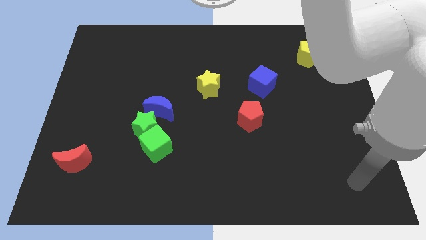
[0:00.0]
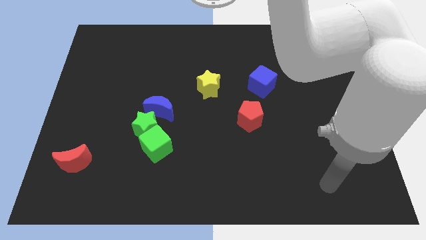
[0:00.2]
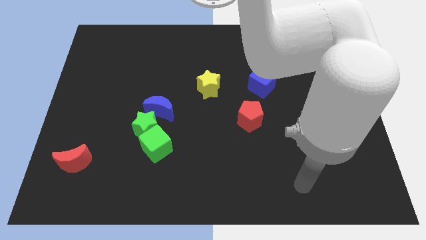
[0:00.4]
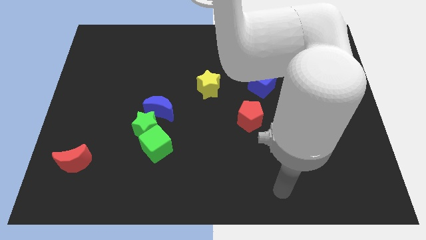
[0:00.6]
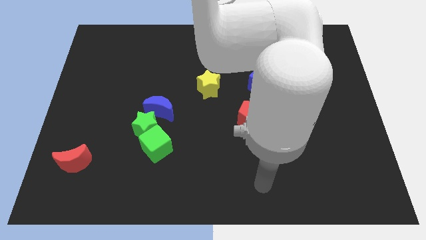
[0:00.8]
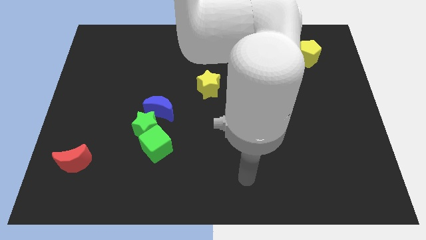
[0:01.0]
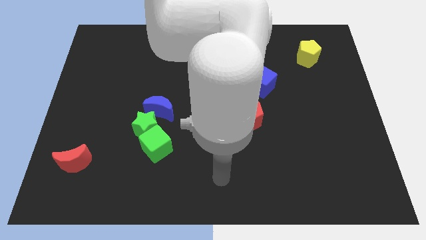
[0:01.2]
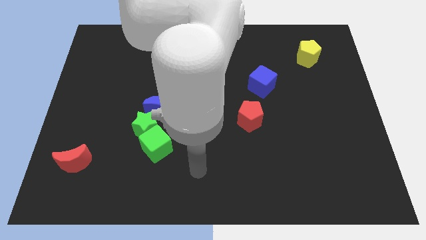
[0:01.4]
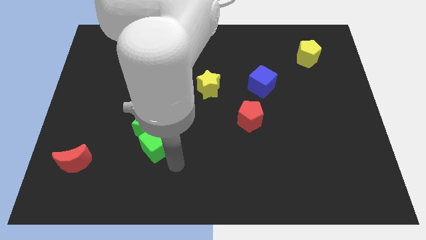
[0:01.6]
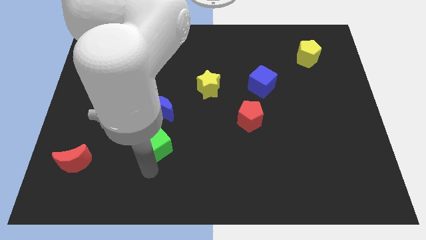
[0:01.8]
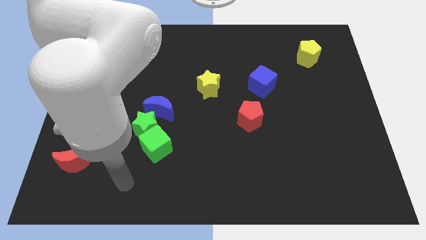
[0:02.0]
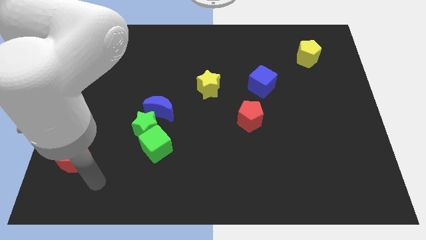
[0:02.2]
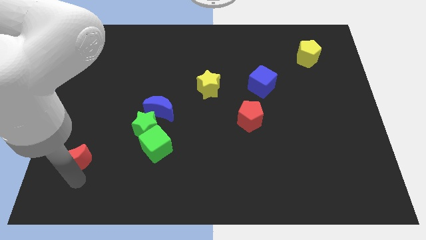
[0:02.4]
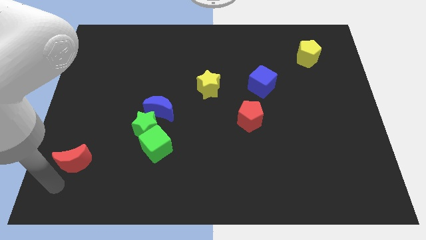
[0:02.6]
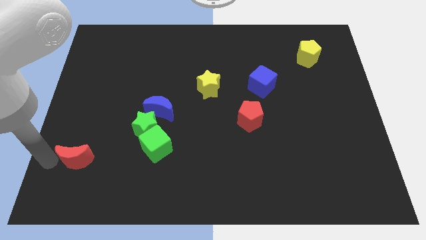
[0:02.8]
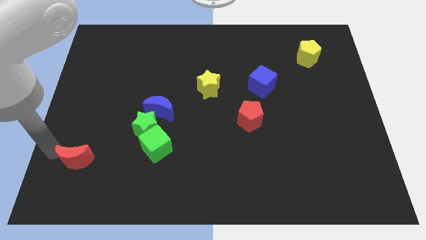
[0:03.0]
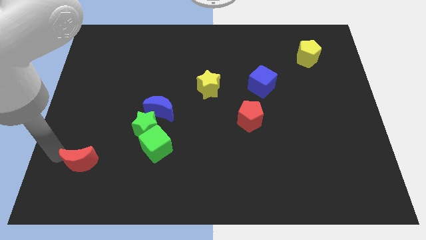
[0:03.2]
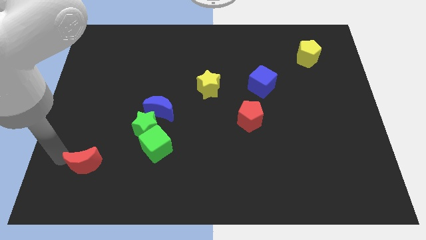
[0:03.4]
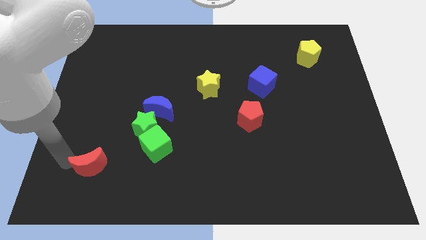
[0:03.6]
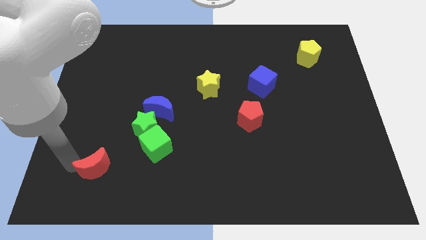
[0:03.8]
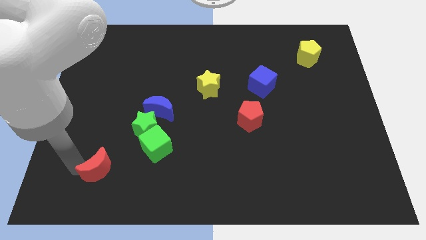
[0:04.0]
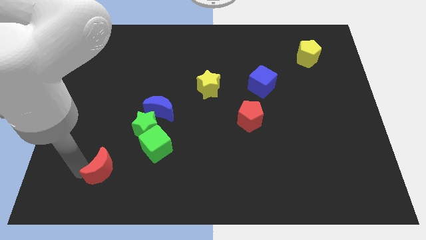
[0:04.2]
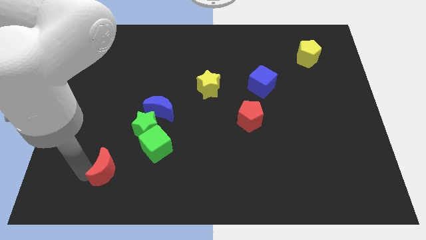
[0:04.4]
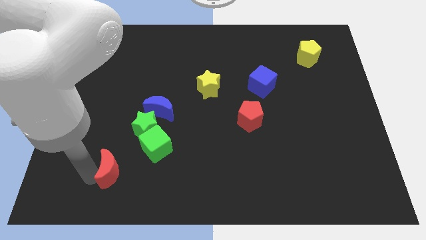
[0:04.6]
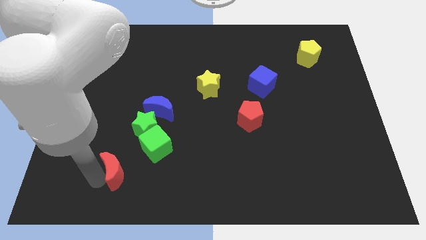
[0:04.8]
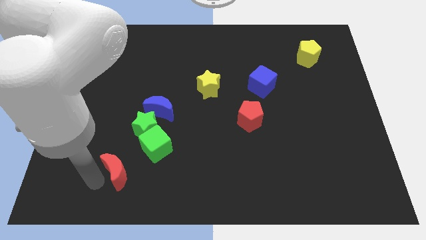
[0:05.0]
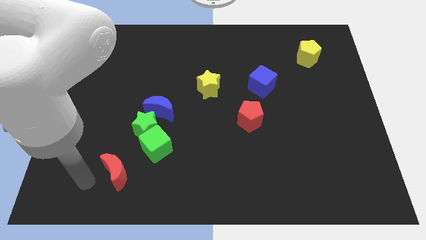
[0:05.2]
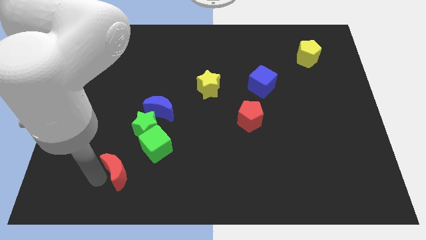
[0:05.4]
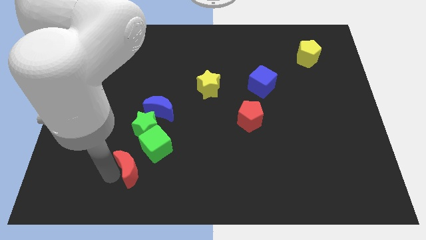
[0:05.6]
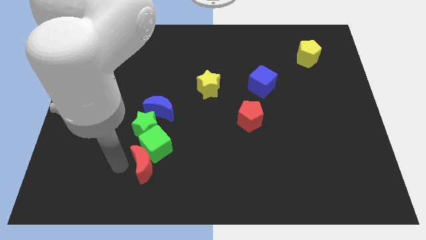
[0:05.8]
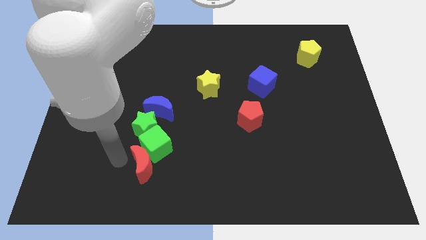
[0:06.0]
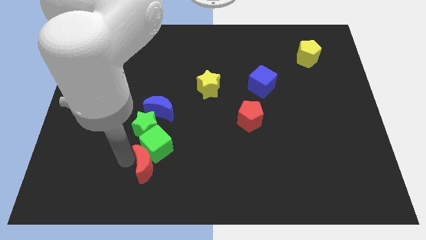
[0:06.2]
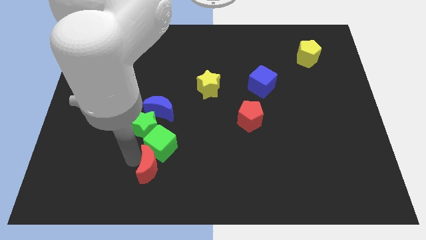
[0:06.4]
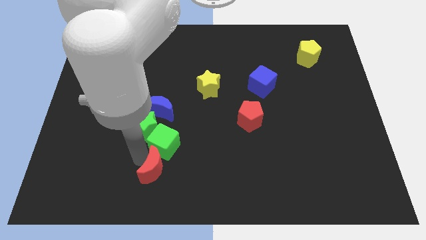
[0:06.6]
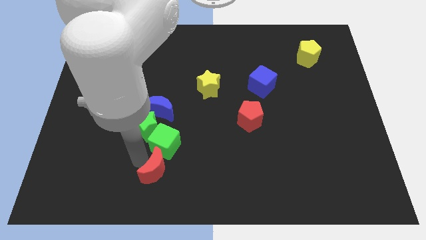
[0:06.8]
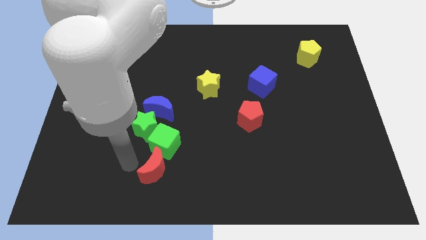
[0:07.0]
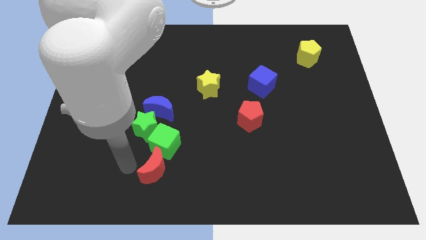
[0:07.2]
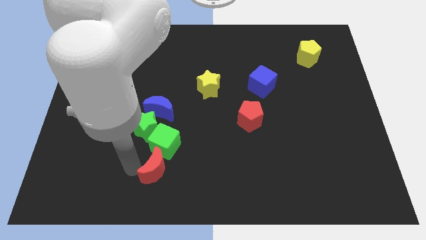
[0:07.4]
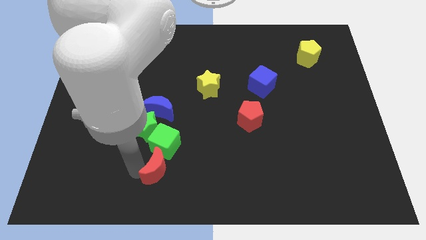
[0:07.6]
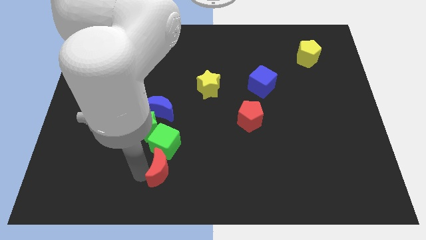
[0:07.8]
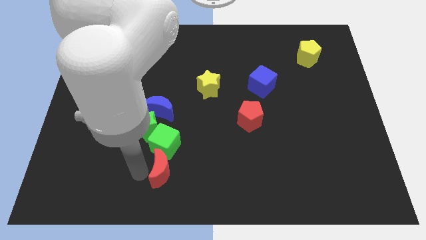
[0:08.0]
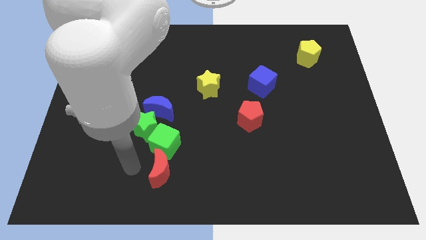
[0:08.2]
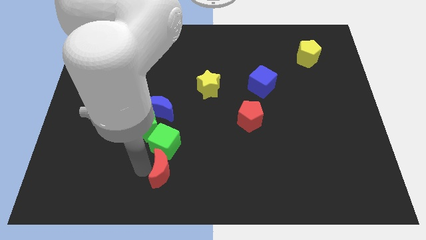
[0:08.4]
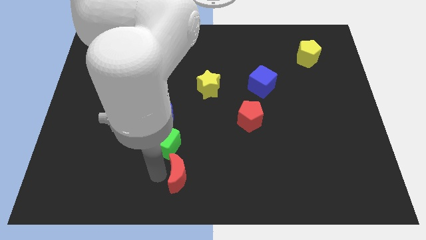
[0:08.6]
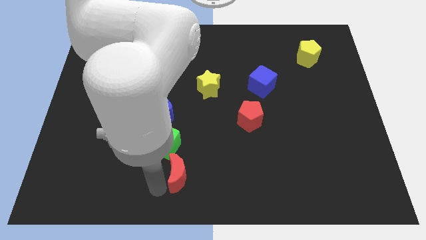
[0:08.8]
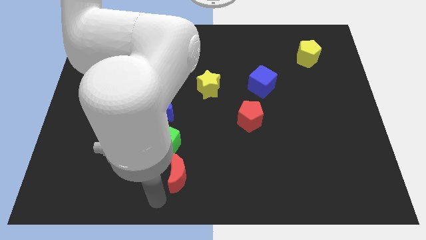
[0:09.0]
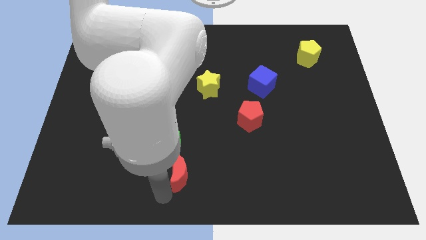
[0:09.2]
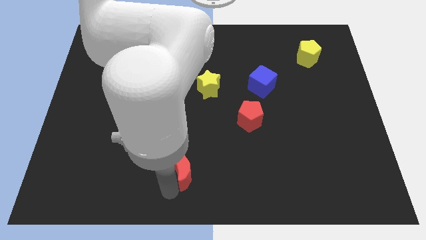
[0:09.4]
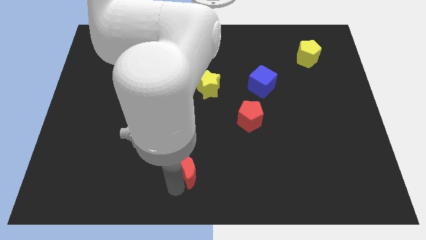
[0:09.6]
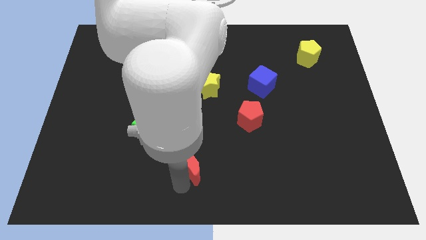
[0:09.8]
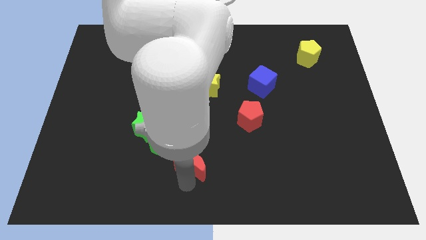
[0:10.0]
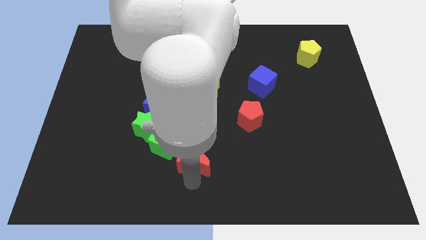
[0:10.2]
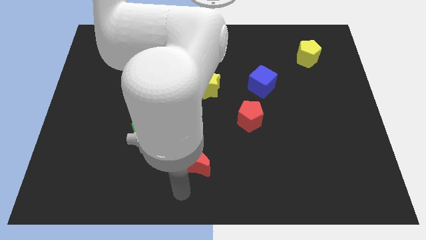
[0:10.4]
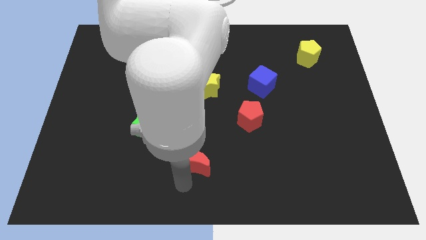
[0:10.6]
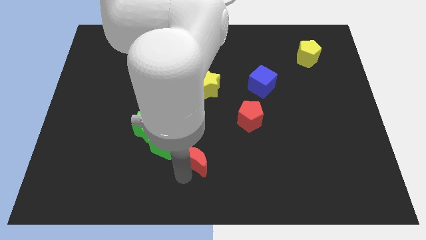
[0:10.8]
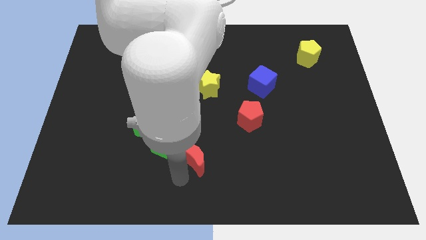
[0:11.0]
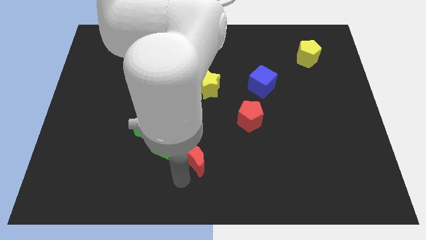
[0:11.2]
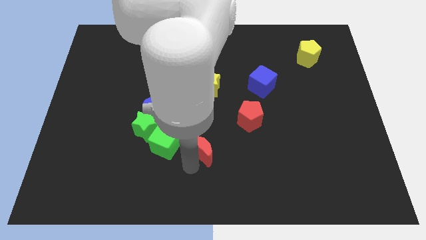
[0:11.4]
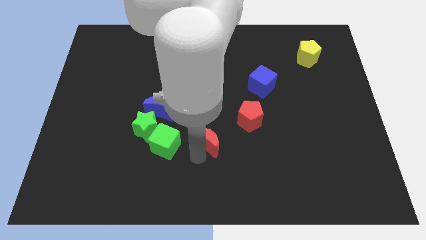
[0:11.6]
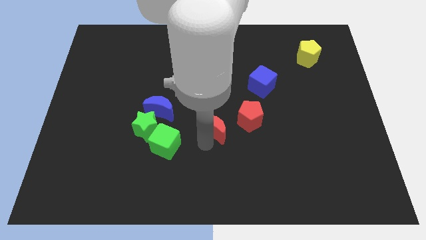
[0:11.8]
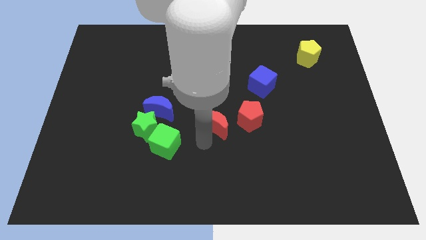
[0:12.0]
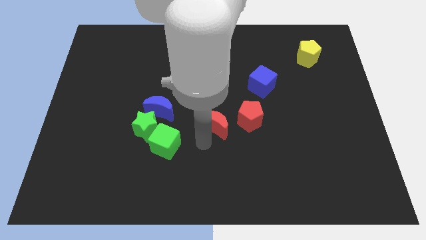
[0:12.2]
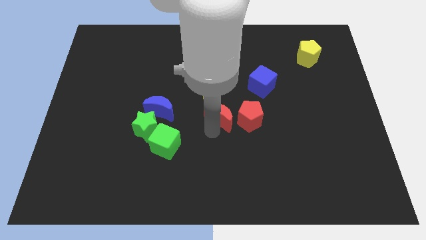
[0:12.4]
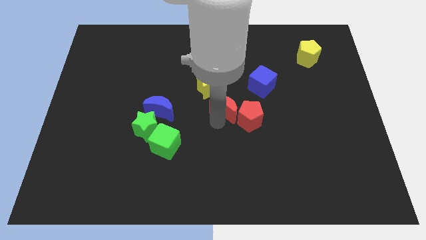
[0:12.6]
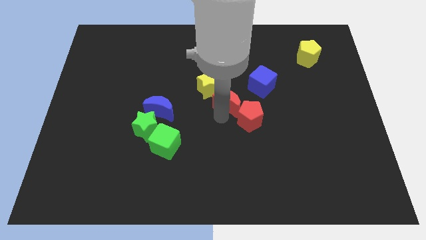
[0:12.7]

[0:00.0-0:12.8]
push the red moon to the top side of the red pentagon

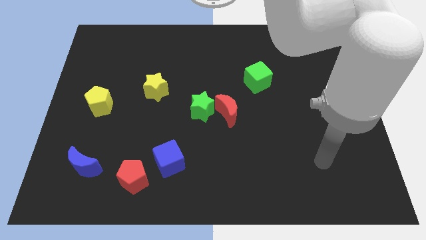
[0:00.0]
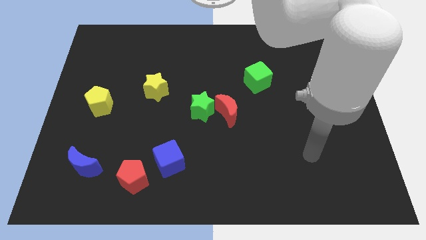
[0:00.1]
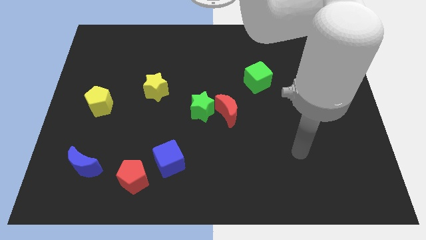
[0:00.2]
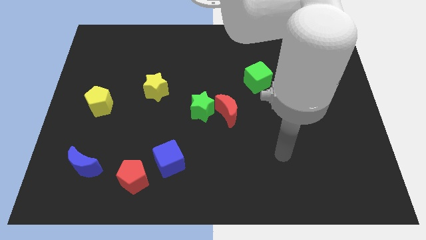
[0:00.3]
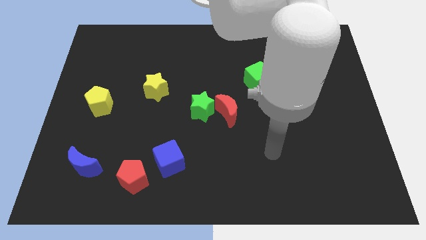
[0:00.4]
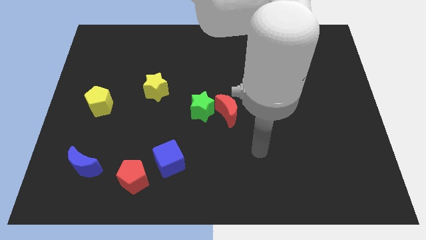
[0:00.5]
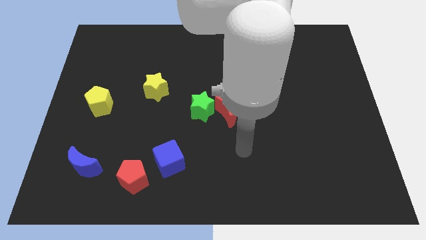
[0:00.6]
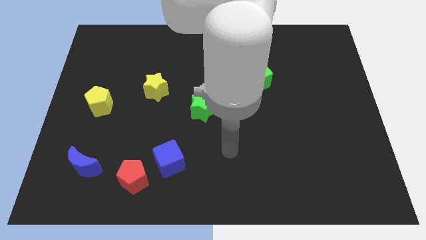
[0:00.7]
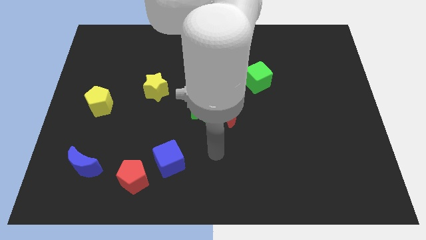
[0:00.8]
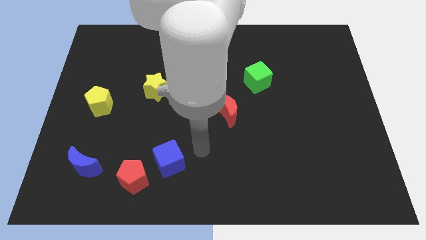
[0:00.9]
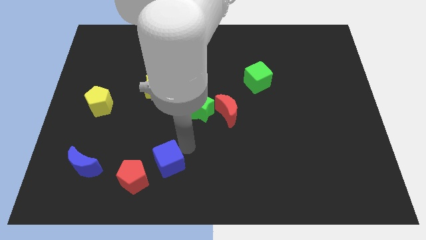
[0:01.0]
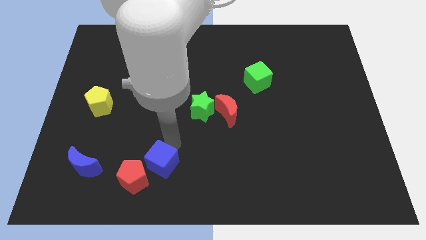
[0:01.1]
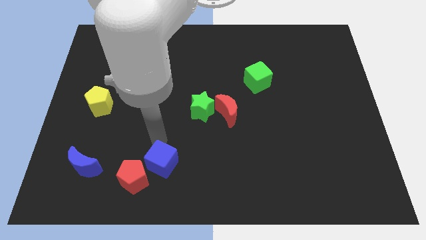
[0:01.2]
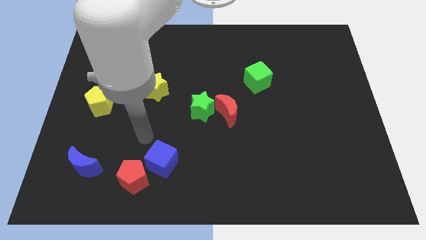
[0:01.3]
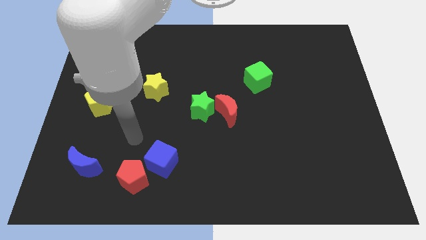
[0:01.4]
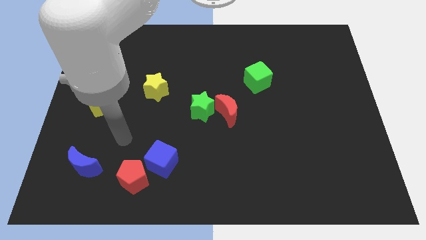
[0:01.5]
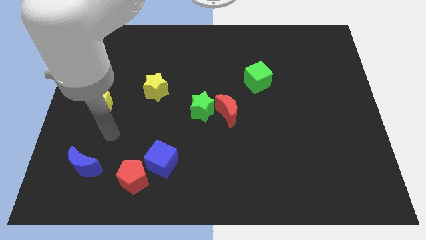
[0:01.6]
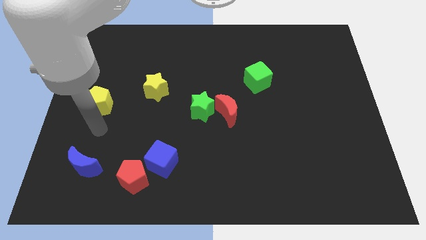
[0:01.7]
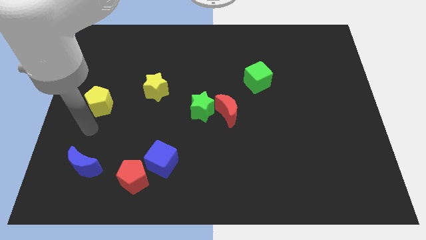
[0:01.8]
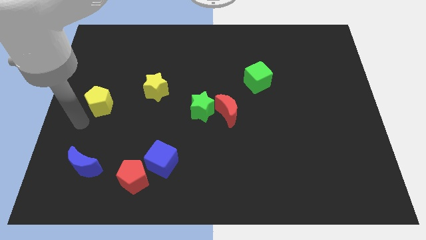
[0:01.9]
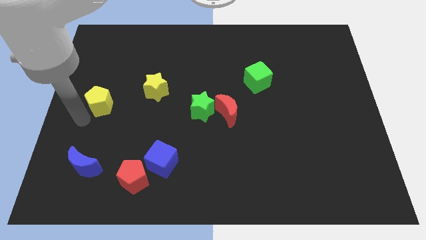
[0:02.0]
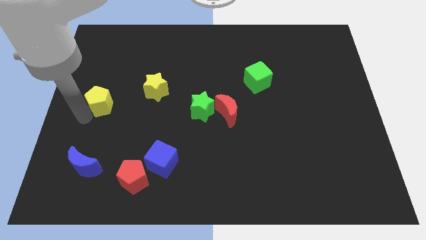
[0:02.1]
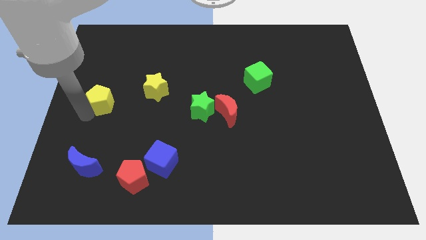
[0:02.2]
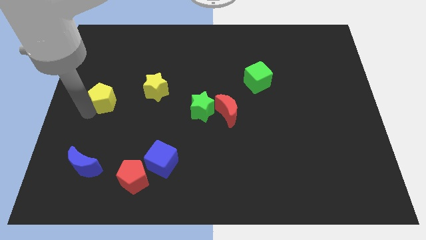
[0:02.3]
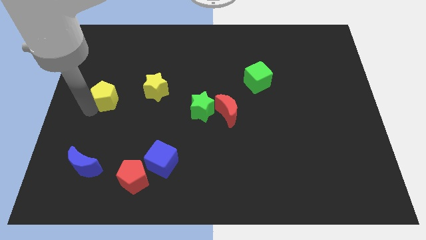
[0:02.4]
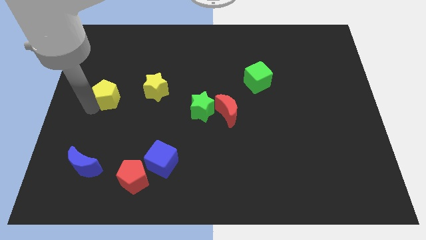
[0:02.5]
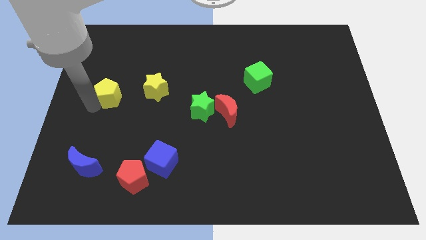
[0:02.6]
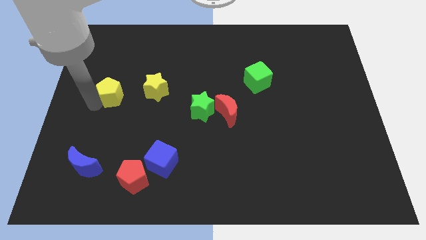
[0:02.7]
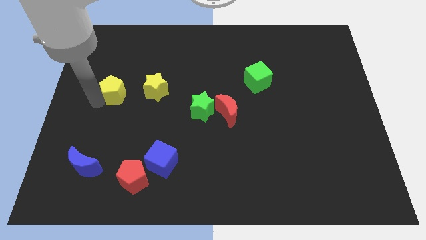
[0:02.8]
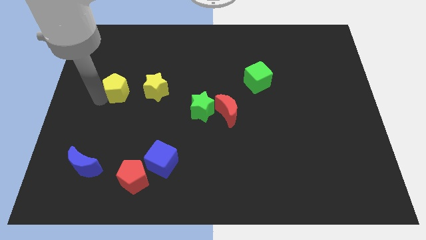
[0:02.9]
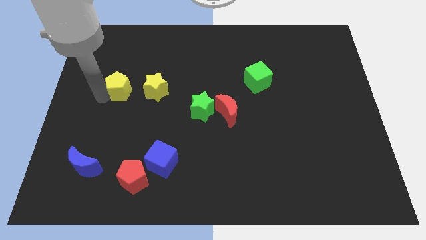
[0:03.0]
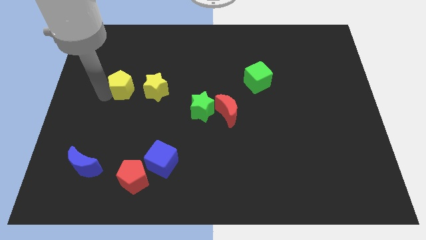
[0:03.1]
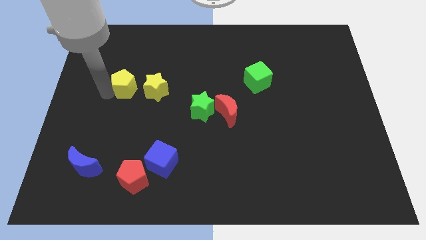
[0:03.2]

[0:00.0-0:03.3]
push the yellow pentagon to the top left side of the yellow star
